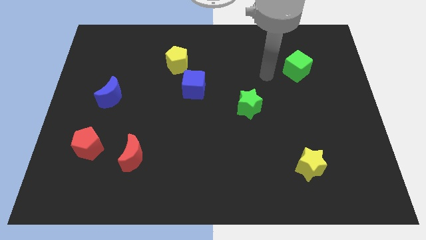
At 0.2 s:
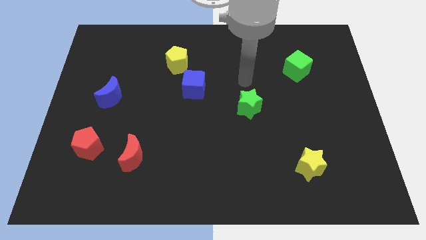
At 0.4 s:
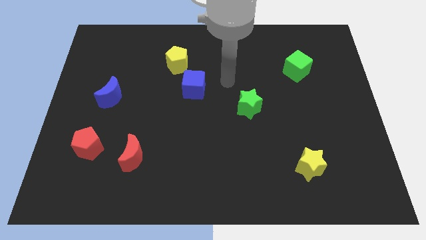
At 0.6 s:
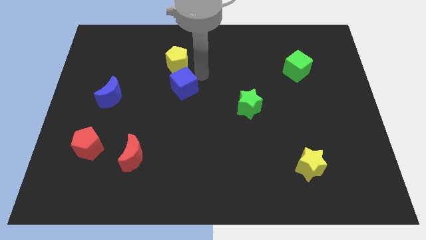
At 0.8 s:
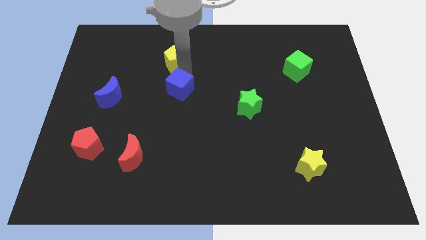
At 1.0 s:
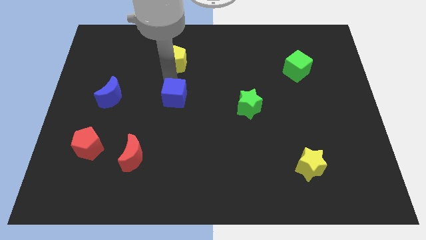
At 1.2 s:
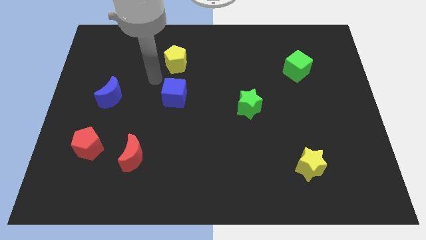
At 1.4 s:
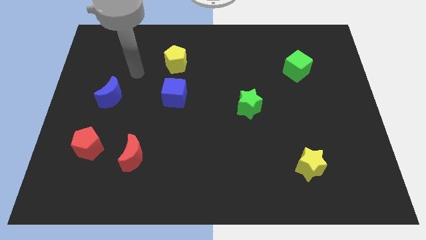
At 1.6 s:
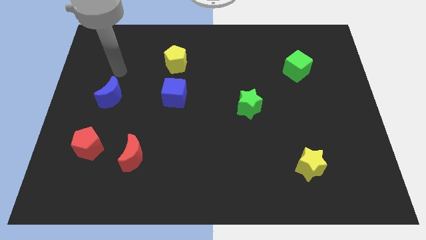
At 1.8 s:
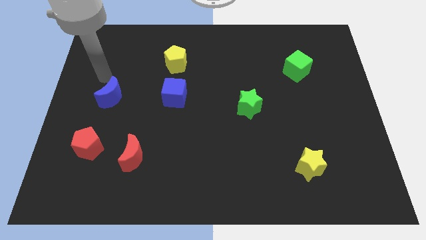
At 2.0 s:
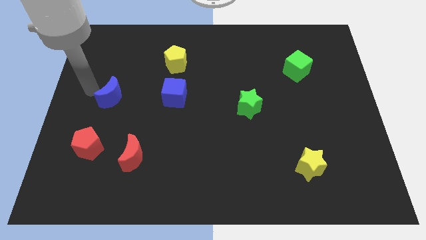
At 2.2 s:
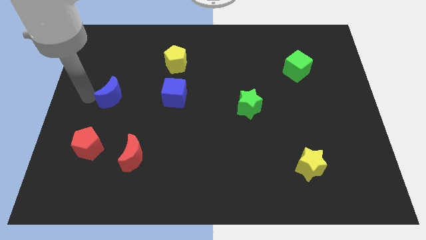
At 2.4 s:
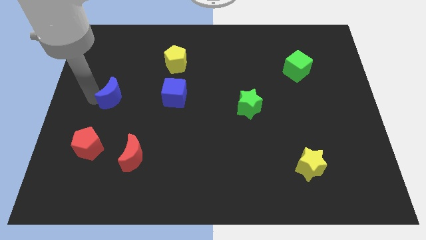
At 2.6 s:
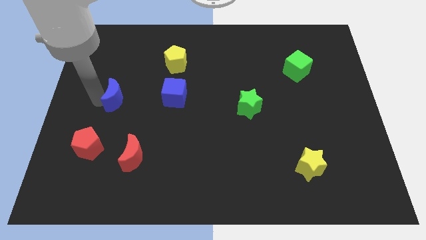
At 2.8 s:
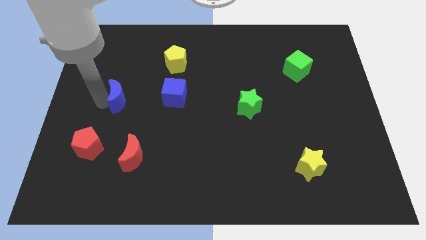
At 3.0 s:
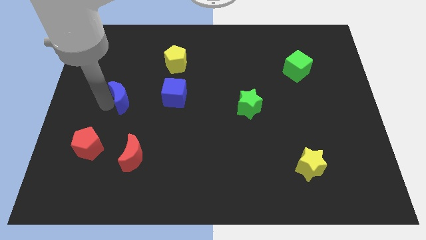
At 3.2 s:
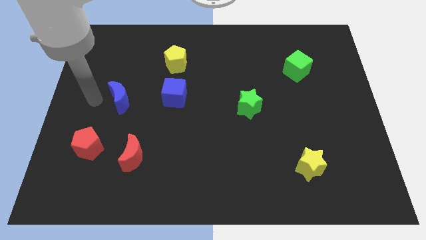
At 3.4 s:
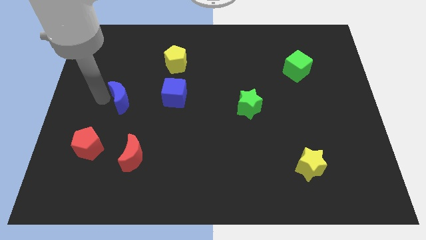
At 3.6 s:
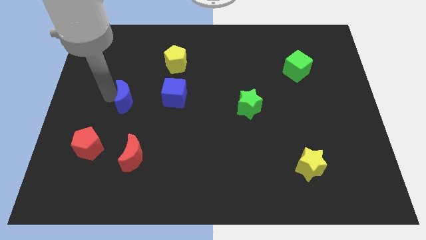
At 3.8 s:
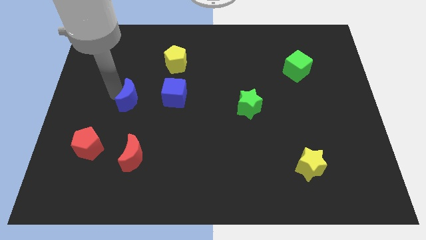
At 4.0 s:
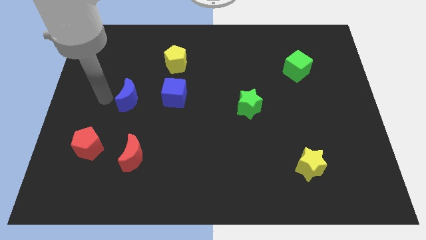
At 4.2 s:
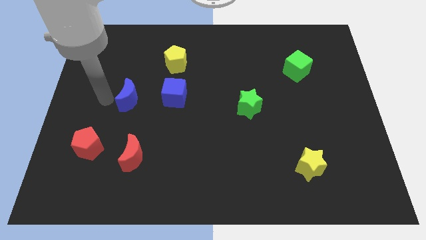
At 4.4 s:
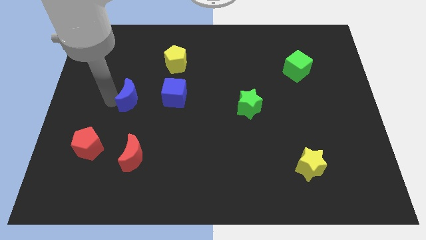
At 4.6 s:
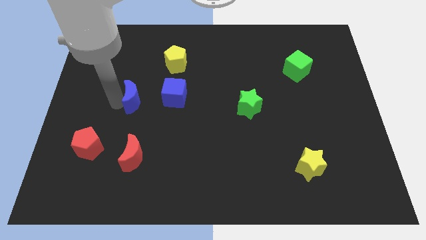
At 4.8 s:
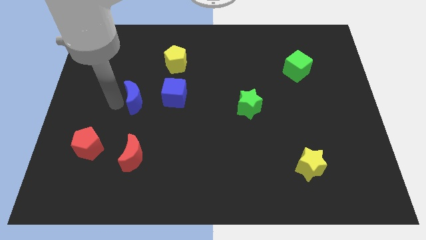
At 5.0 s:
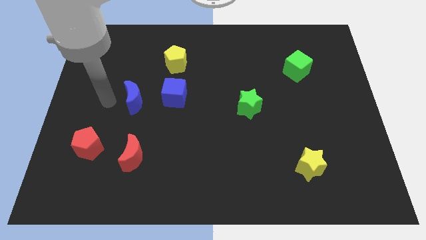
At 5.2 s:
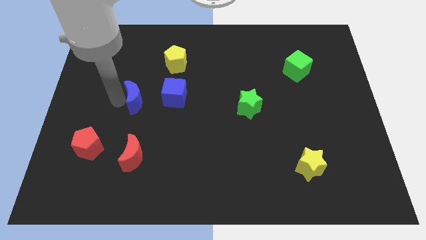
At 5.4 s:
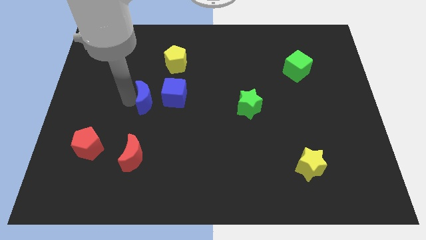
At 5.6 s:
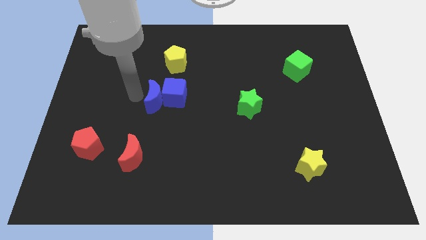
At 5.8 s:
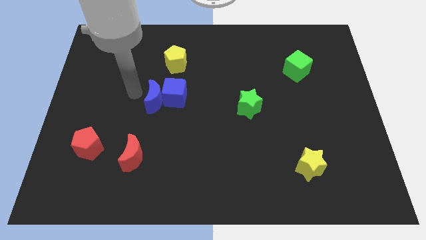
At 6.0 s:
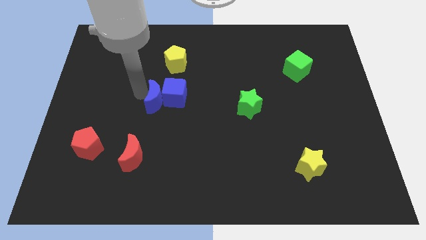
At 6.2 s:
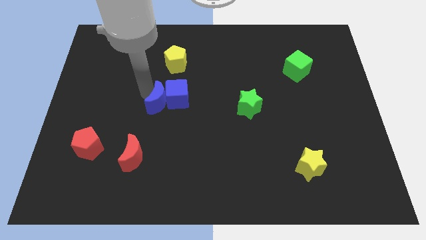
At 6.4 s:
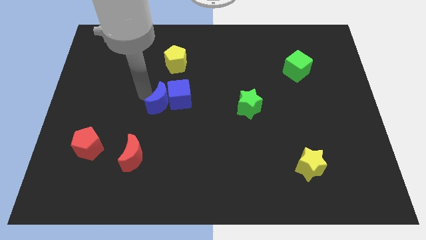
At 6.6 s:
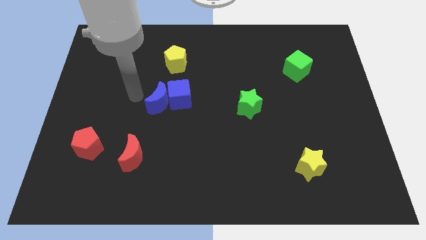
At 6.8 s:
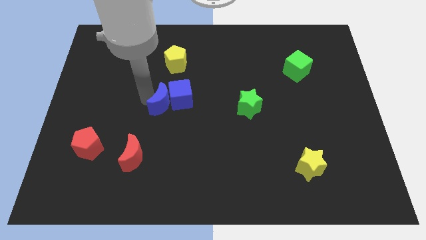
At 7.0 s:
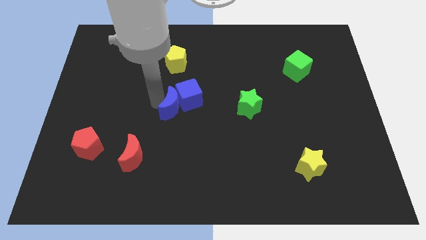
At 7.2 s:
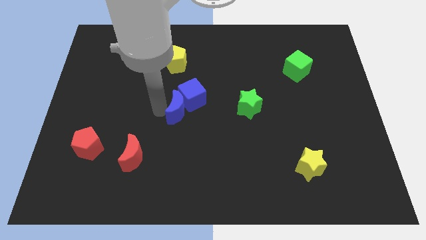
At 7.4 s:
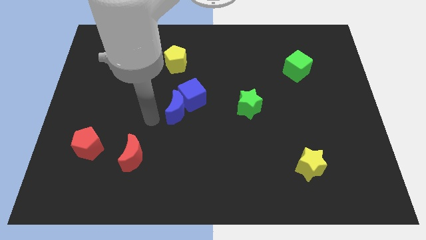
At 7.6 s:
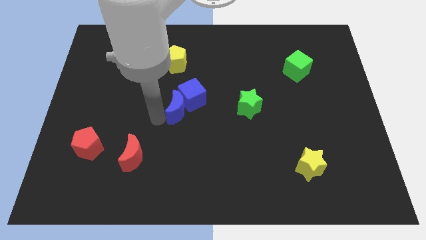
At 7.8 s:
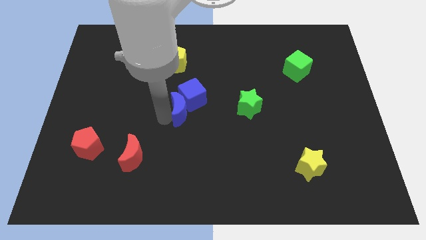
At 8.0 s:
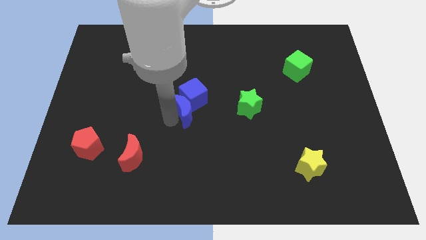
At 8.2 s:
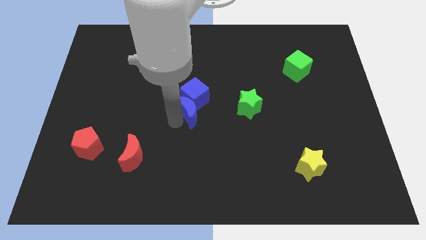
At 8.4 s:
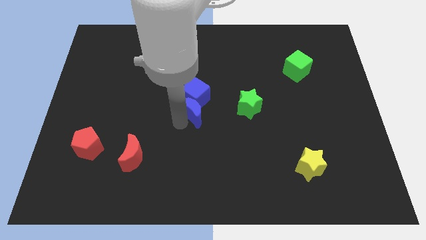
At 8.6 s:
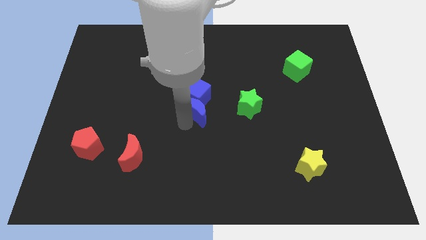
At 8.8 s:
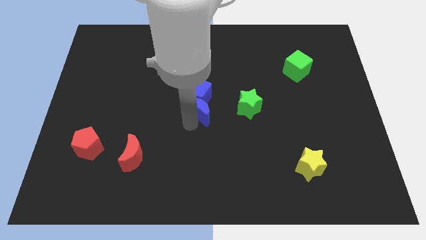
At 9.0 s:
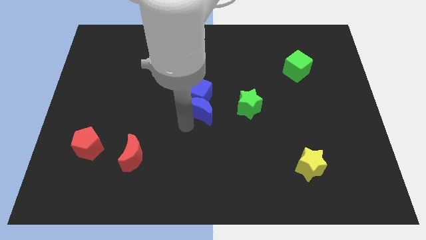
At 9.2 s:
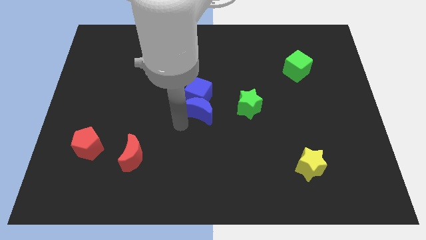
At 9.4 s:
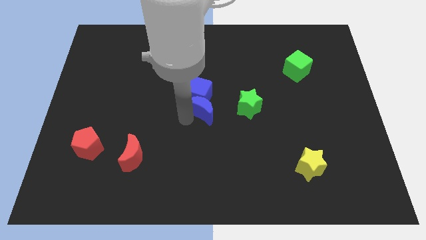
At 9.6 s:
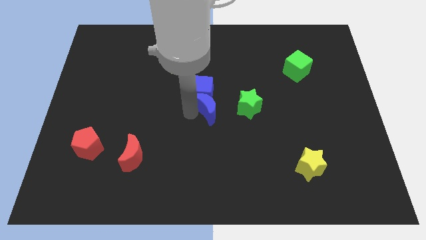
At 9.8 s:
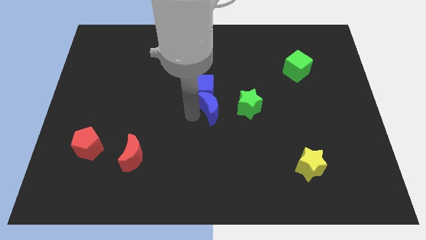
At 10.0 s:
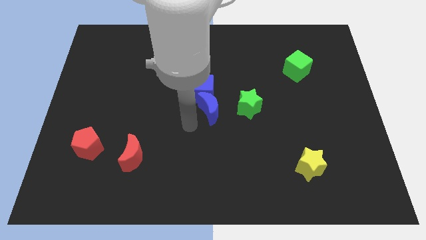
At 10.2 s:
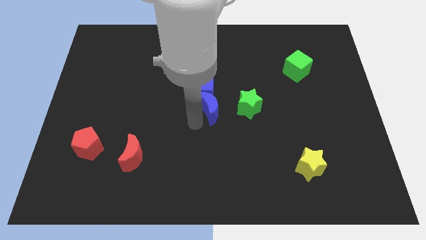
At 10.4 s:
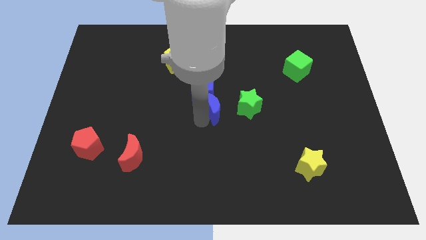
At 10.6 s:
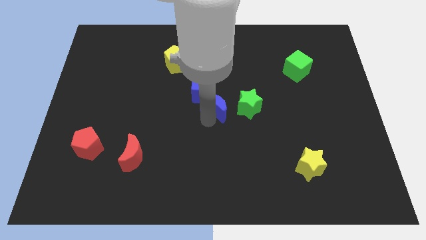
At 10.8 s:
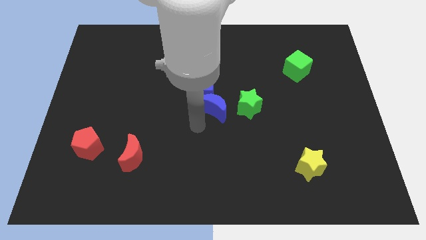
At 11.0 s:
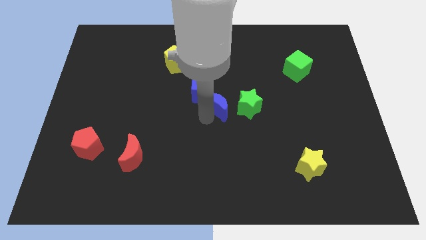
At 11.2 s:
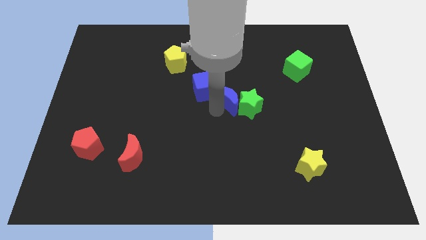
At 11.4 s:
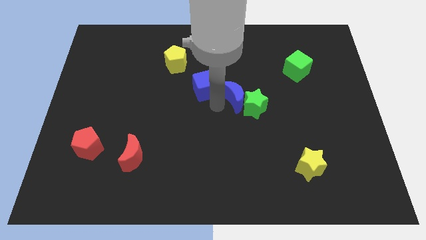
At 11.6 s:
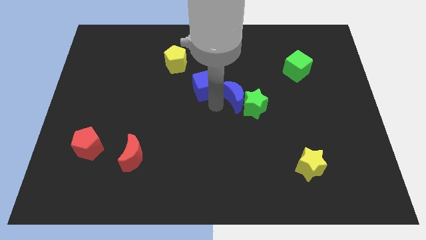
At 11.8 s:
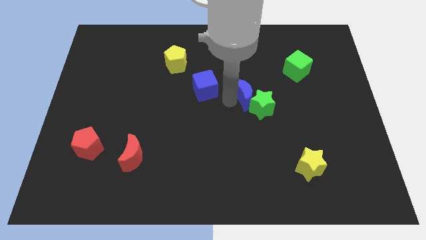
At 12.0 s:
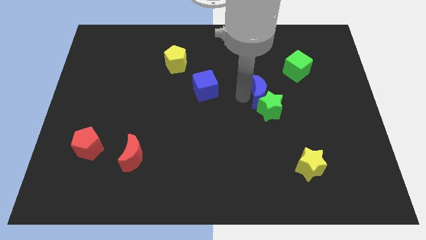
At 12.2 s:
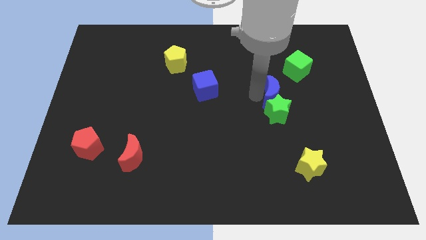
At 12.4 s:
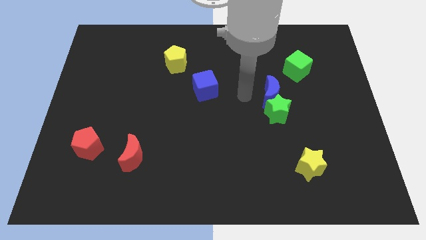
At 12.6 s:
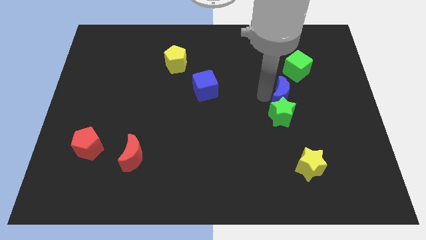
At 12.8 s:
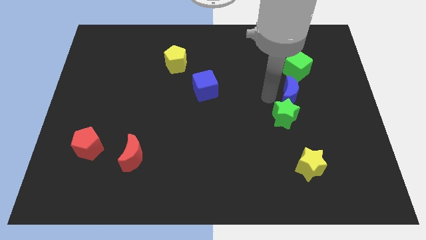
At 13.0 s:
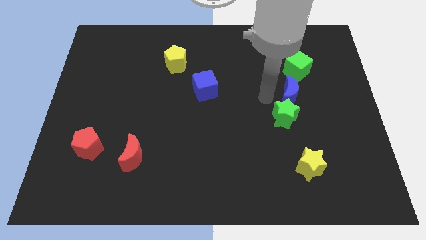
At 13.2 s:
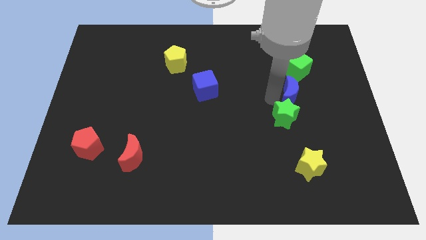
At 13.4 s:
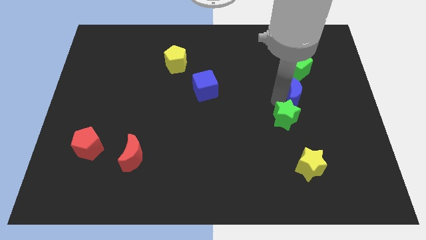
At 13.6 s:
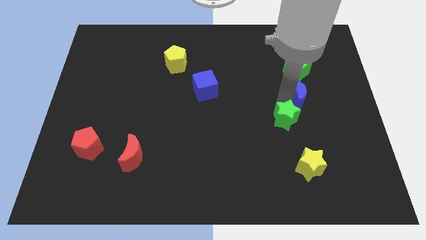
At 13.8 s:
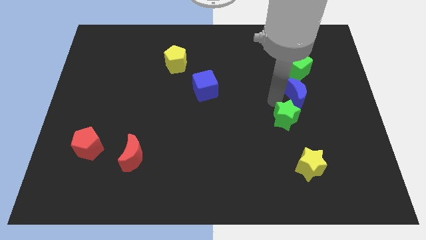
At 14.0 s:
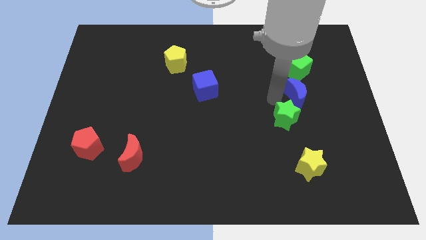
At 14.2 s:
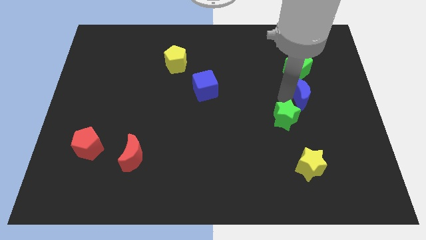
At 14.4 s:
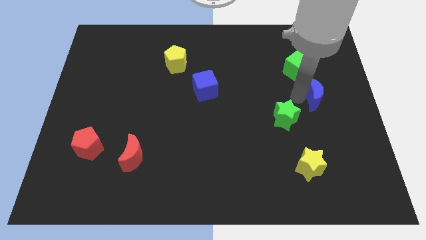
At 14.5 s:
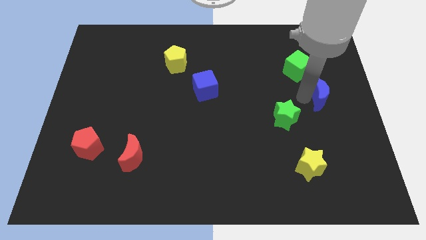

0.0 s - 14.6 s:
put the blue moon to the center right
